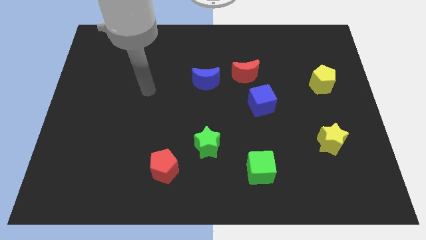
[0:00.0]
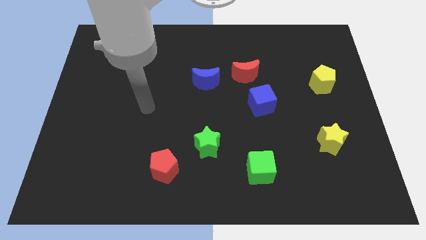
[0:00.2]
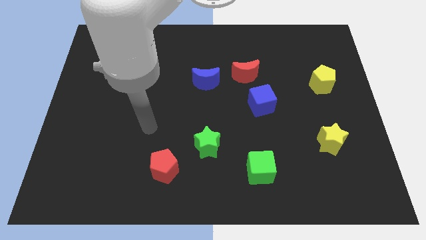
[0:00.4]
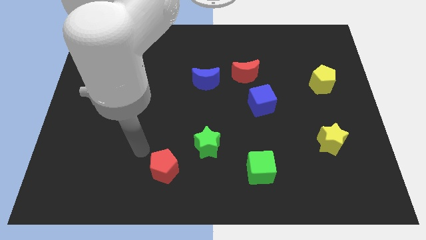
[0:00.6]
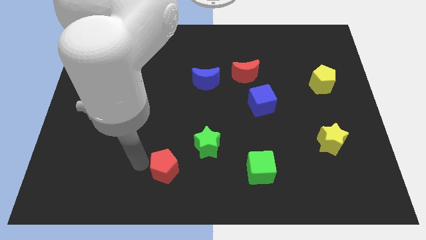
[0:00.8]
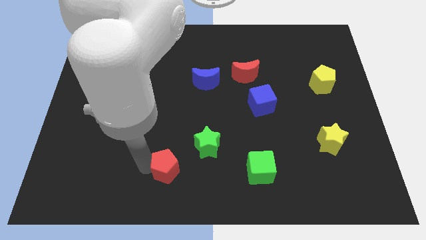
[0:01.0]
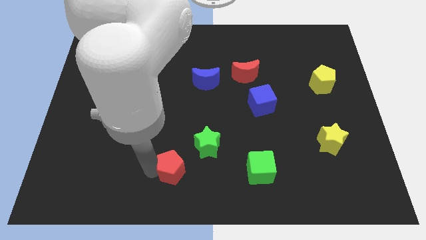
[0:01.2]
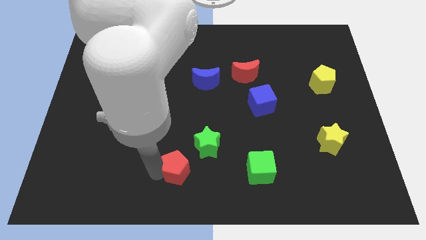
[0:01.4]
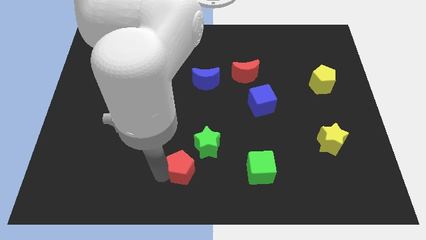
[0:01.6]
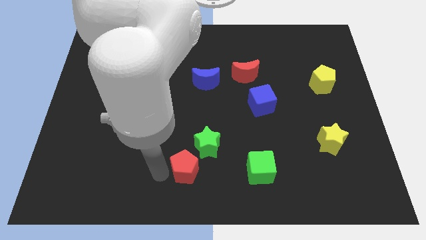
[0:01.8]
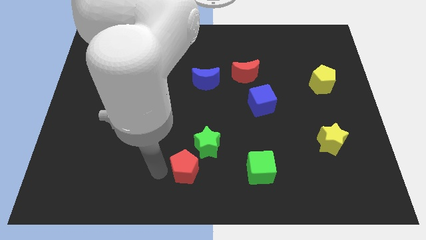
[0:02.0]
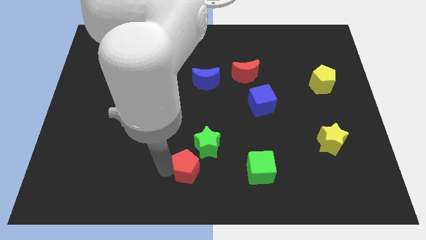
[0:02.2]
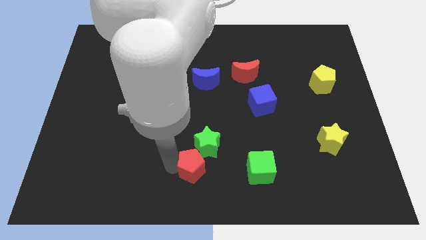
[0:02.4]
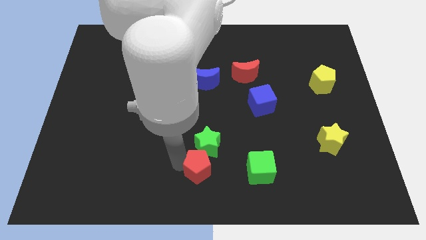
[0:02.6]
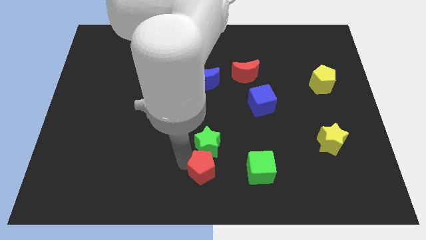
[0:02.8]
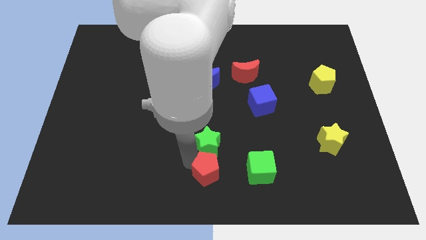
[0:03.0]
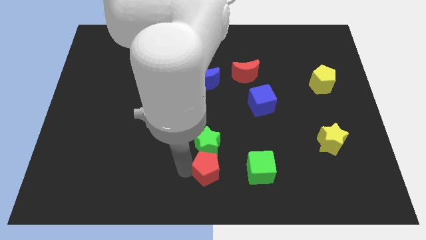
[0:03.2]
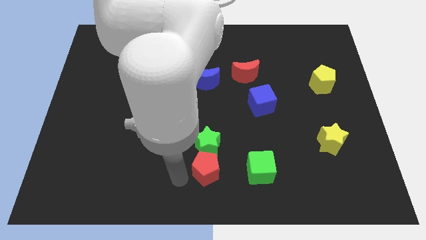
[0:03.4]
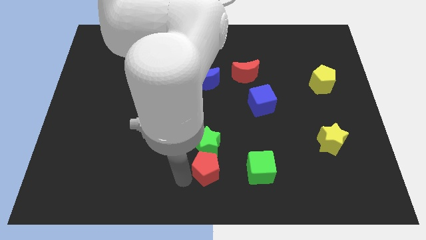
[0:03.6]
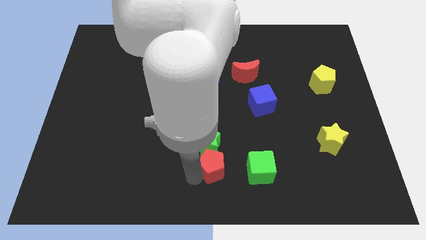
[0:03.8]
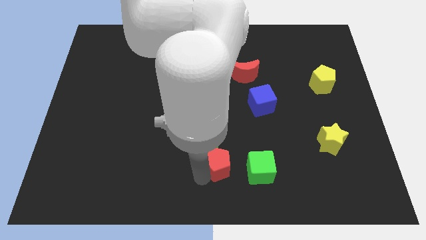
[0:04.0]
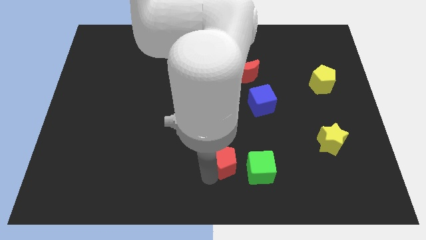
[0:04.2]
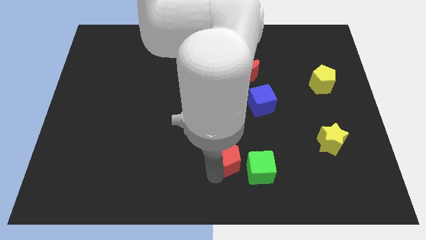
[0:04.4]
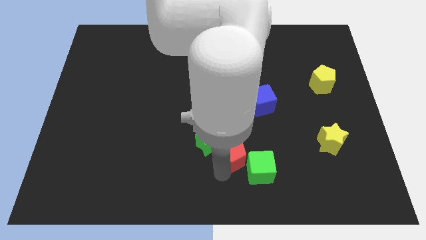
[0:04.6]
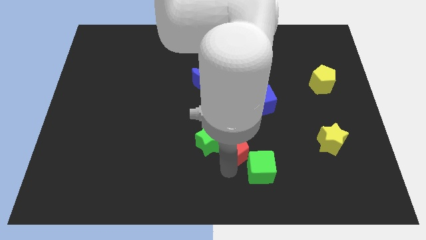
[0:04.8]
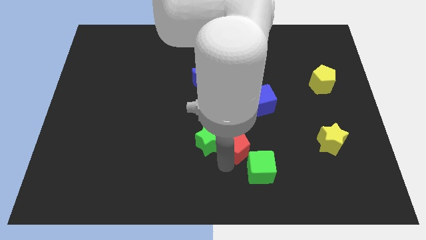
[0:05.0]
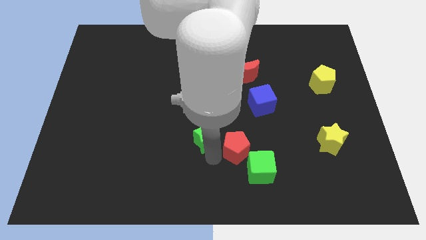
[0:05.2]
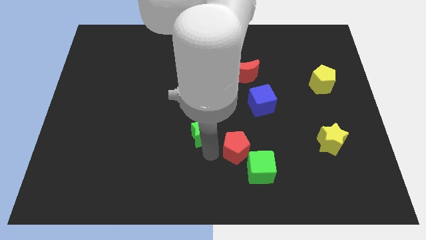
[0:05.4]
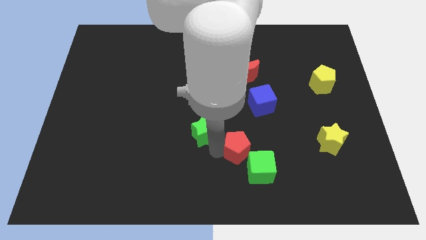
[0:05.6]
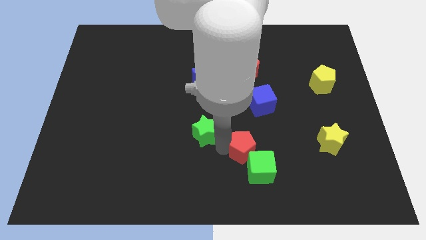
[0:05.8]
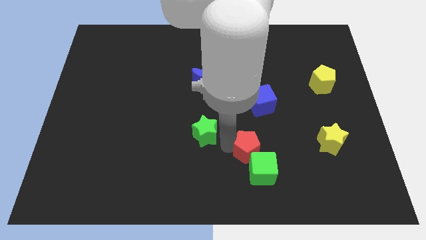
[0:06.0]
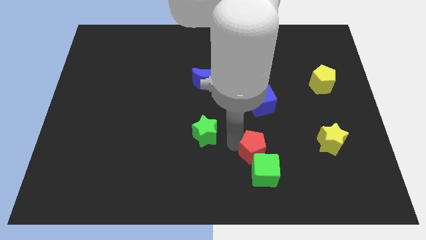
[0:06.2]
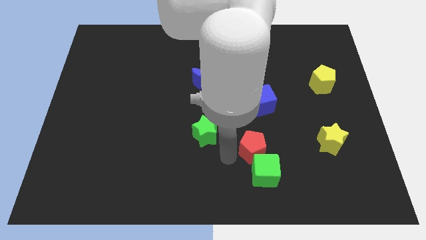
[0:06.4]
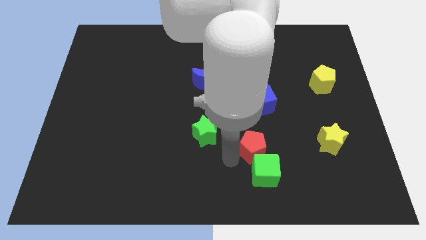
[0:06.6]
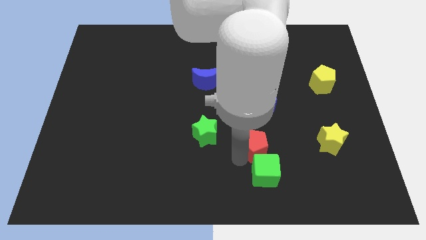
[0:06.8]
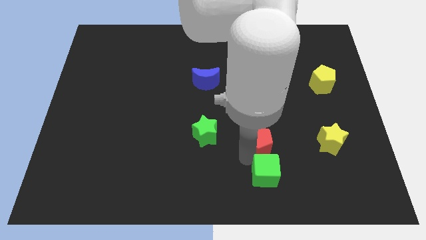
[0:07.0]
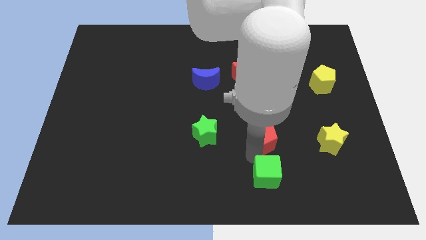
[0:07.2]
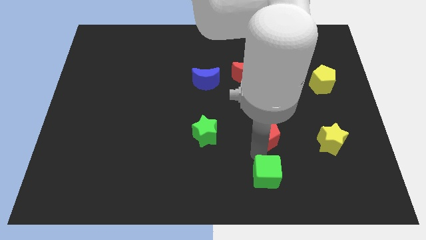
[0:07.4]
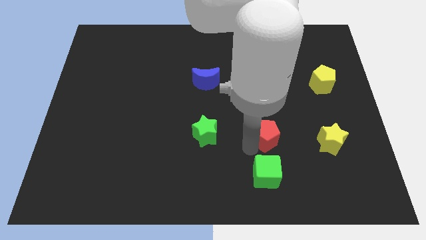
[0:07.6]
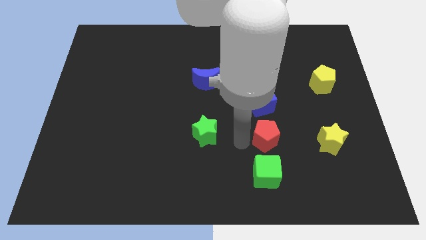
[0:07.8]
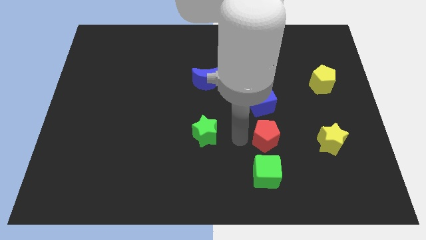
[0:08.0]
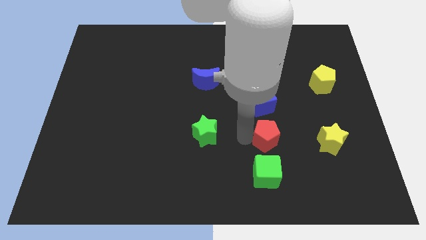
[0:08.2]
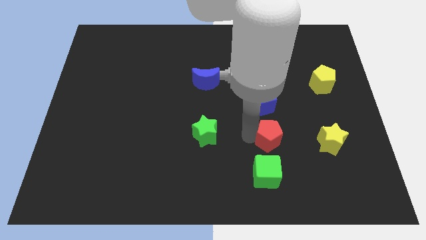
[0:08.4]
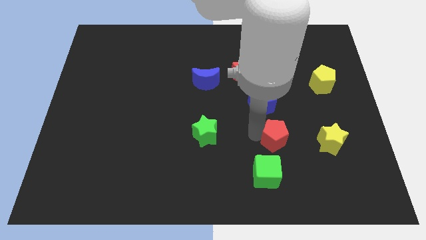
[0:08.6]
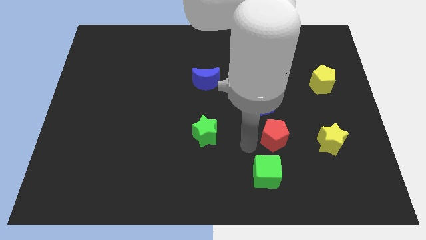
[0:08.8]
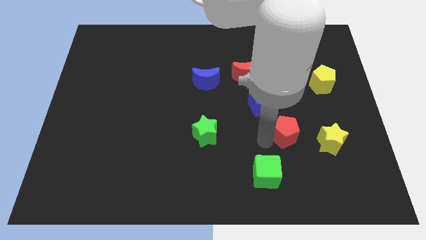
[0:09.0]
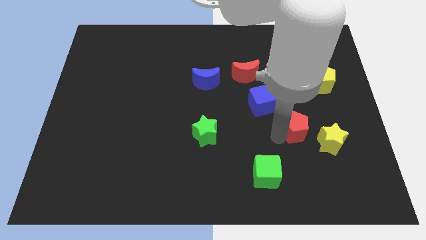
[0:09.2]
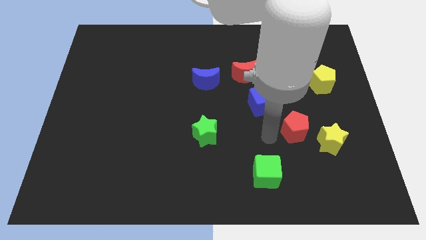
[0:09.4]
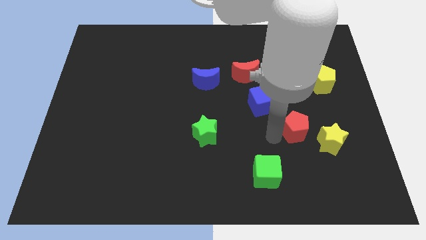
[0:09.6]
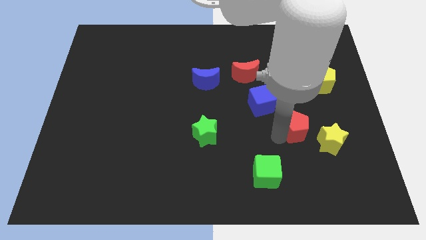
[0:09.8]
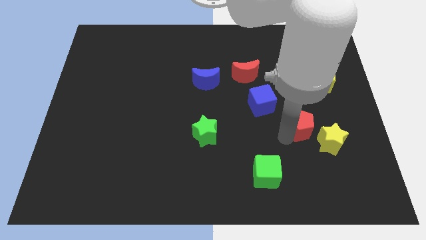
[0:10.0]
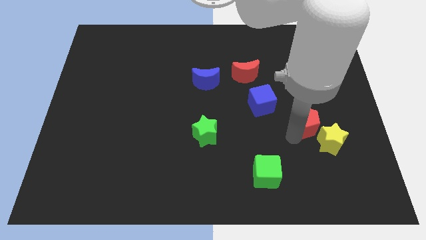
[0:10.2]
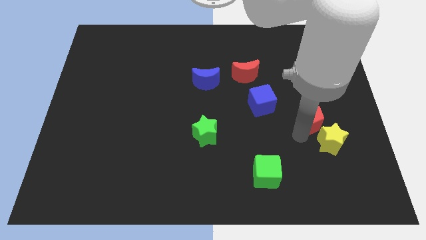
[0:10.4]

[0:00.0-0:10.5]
push the red pentagon below the yellow pentagon

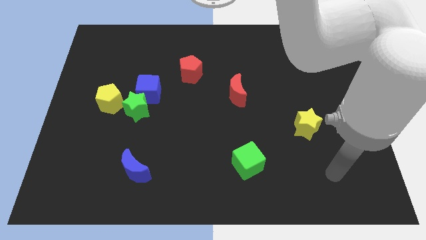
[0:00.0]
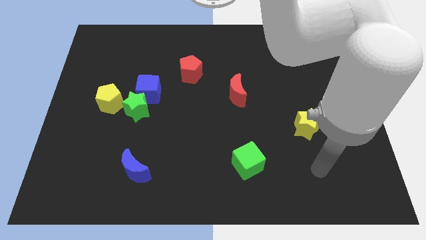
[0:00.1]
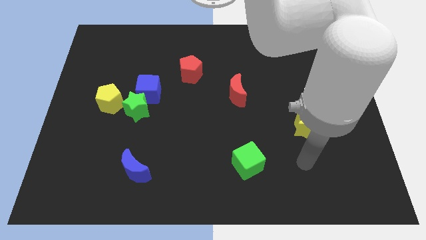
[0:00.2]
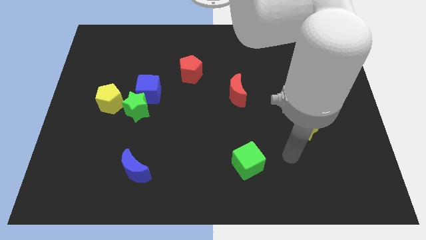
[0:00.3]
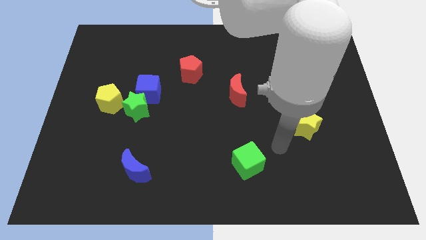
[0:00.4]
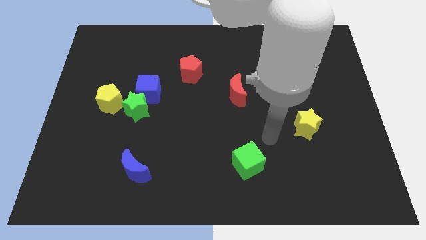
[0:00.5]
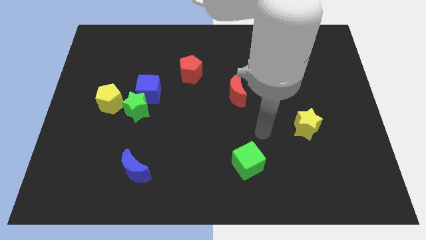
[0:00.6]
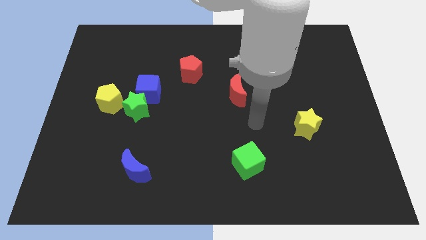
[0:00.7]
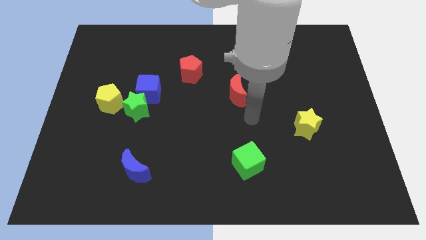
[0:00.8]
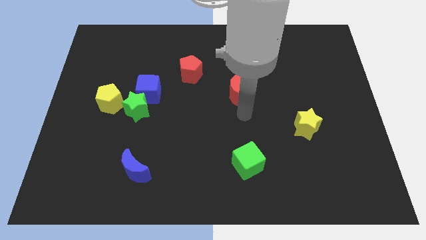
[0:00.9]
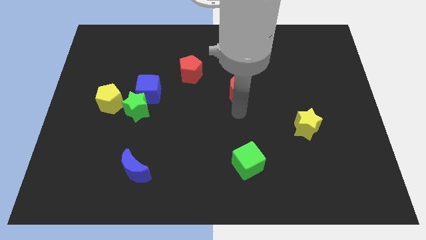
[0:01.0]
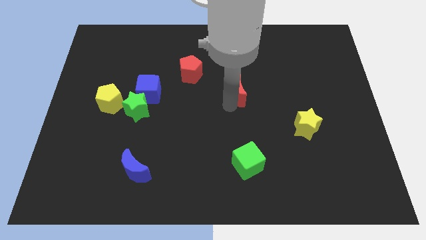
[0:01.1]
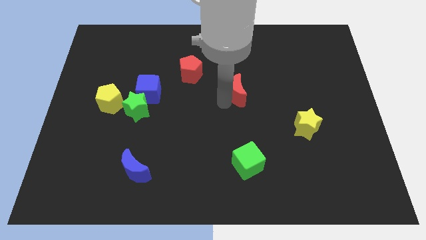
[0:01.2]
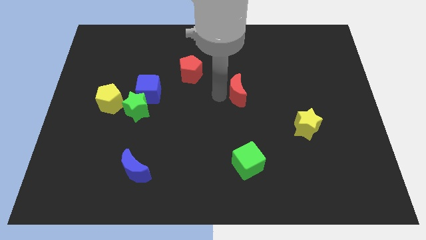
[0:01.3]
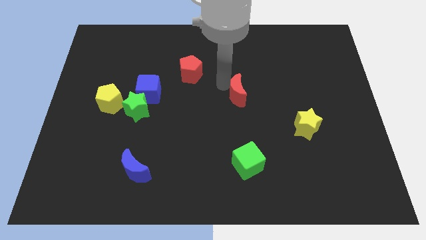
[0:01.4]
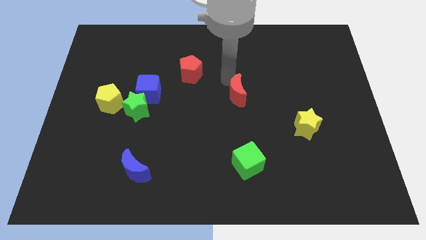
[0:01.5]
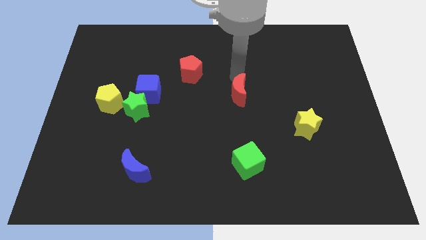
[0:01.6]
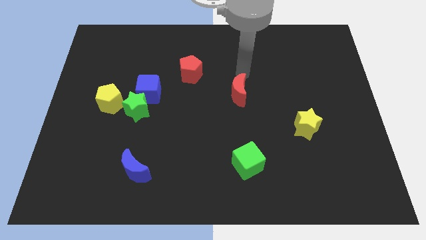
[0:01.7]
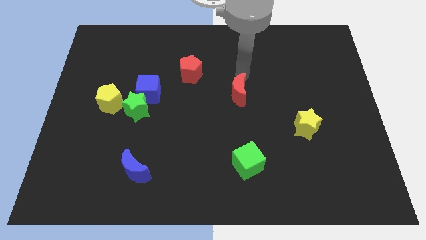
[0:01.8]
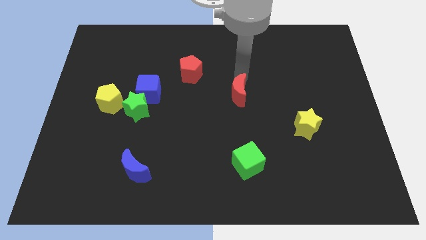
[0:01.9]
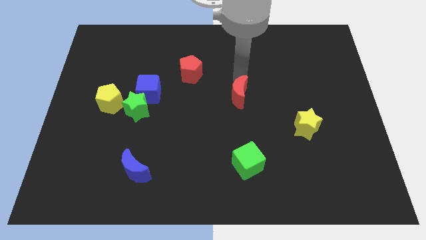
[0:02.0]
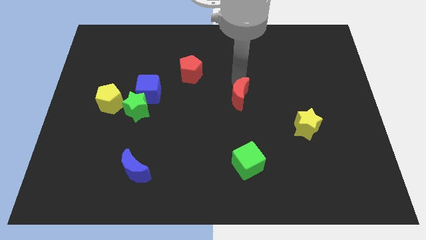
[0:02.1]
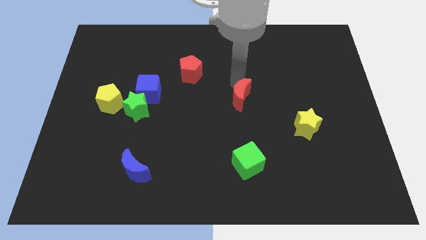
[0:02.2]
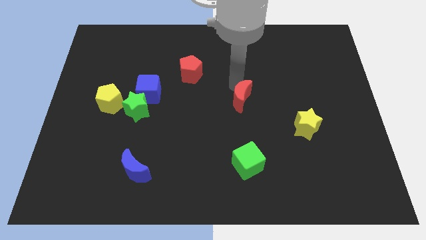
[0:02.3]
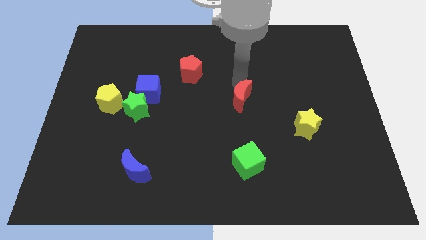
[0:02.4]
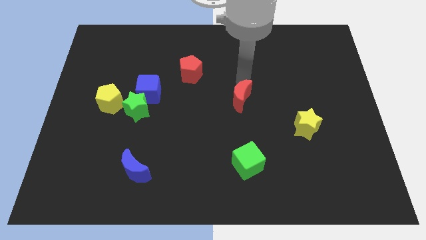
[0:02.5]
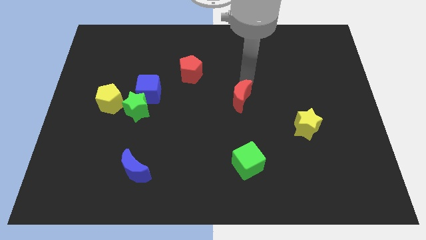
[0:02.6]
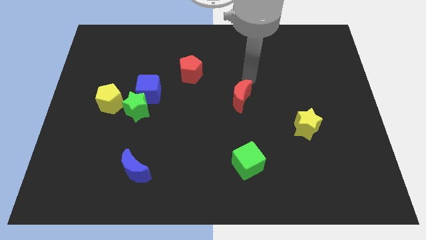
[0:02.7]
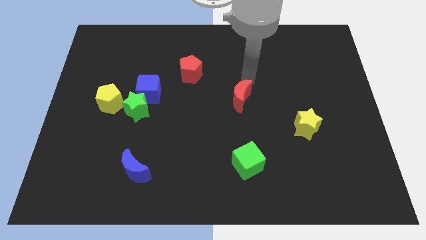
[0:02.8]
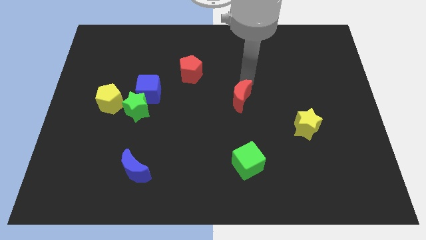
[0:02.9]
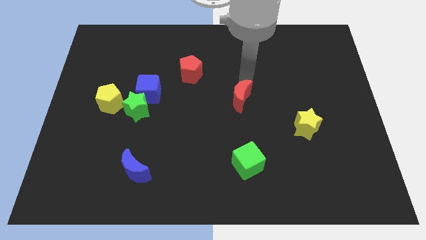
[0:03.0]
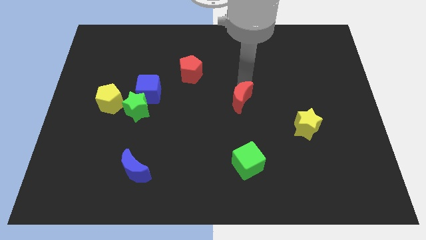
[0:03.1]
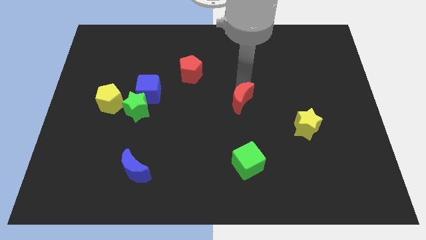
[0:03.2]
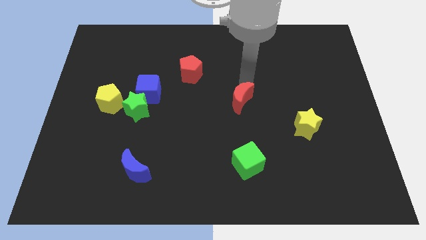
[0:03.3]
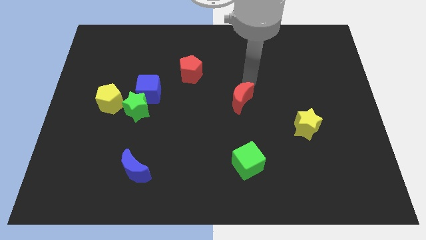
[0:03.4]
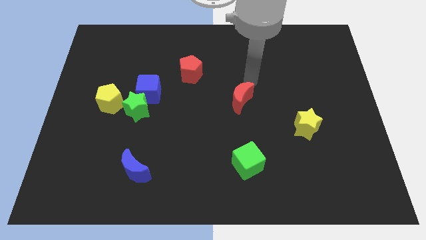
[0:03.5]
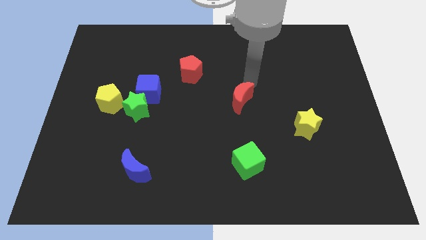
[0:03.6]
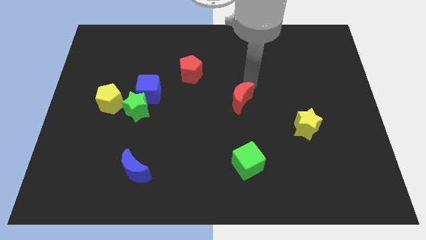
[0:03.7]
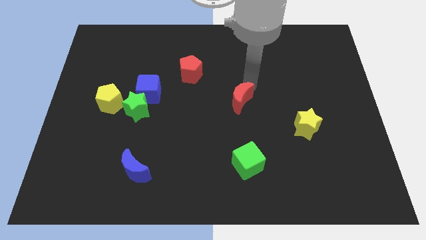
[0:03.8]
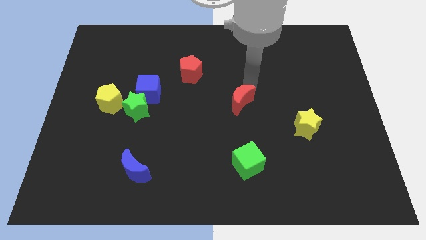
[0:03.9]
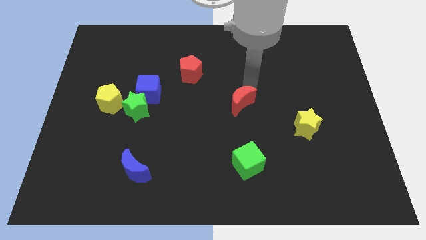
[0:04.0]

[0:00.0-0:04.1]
move the red moon to the top side of the green cube
